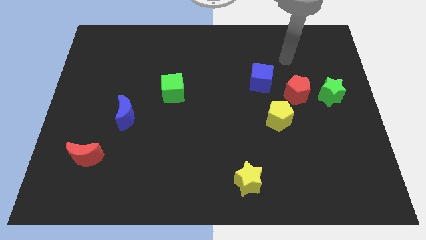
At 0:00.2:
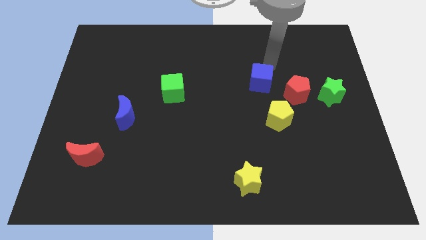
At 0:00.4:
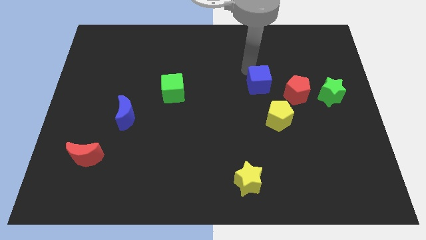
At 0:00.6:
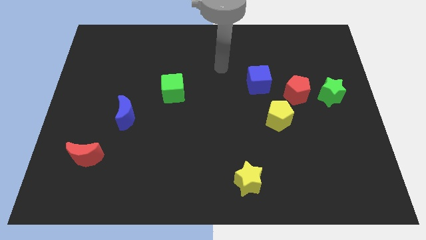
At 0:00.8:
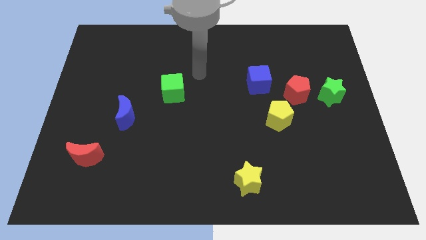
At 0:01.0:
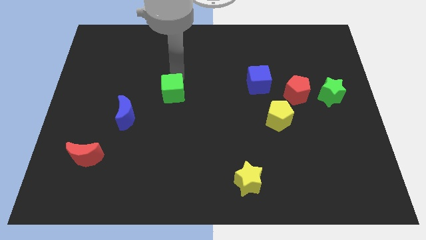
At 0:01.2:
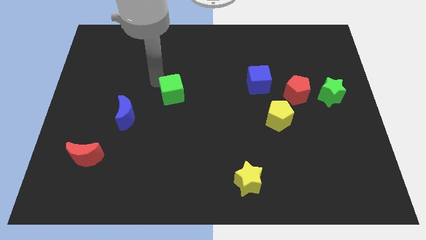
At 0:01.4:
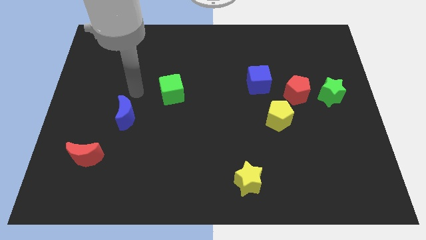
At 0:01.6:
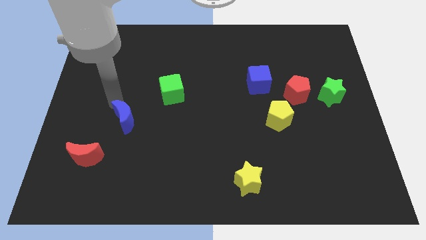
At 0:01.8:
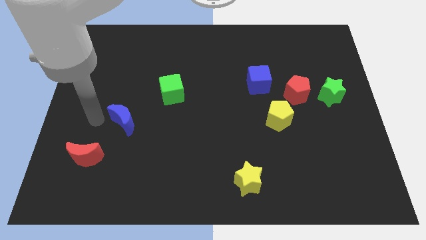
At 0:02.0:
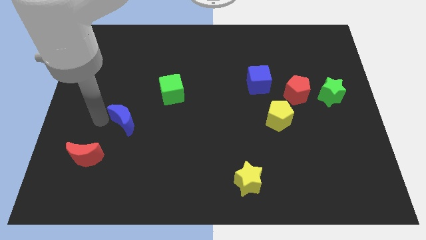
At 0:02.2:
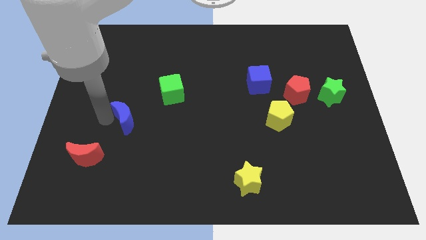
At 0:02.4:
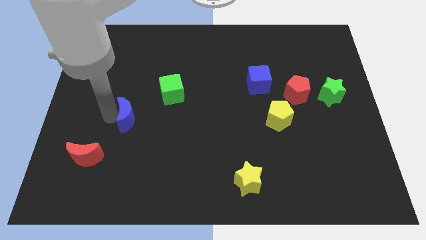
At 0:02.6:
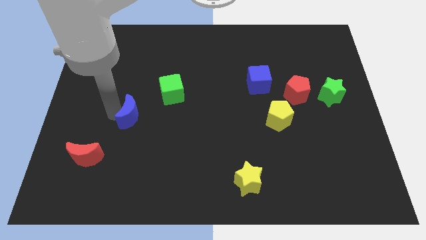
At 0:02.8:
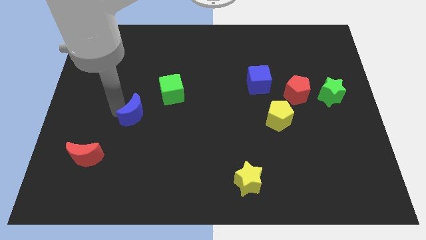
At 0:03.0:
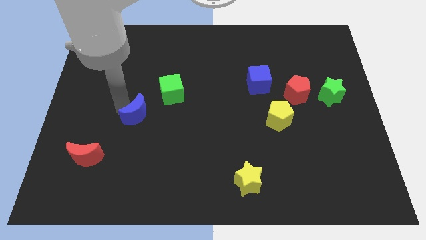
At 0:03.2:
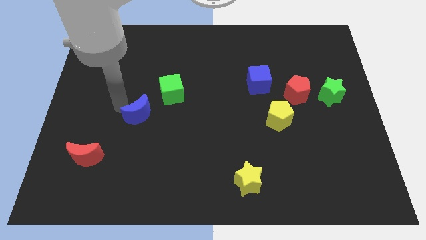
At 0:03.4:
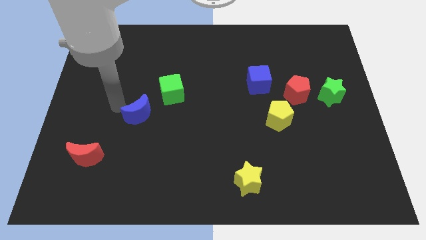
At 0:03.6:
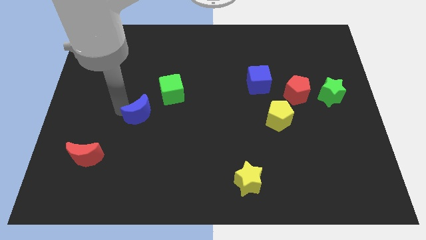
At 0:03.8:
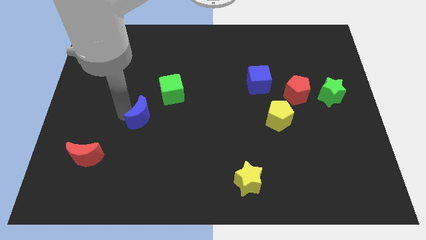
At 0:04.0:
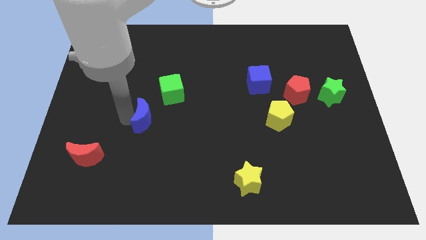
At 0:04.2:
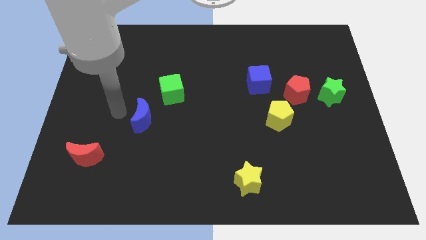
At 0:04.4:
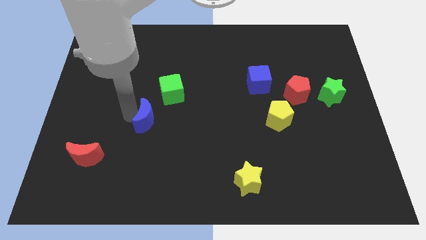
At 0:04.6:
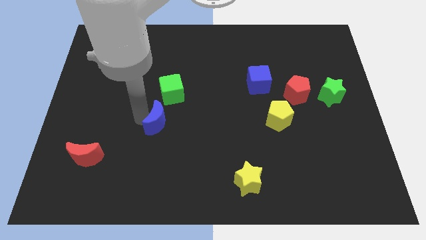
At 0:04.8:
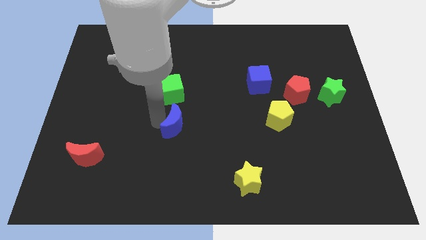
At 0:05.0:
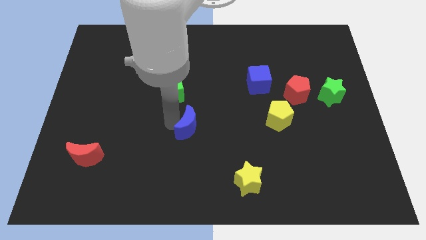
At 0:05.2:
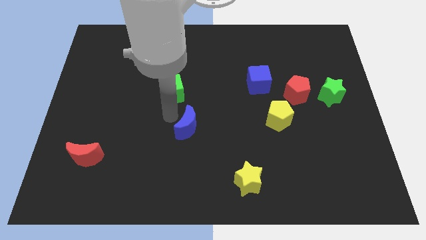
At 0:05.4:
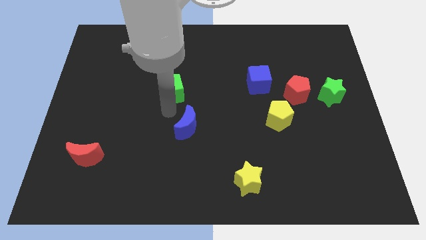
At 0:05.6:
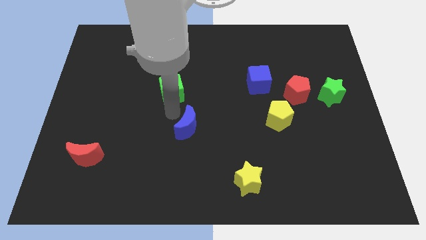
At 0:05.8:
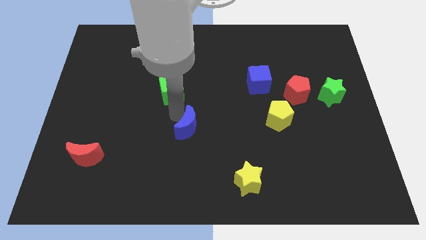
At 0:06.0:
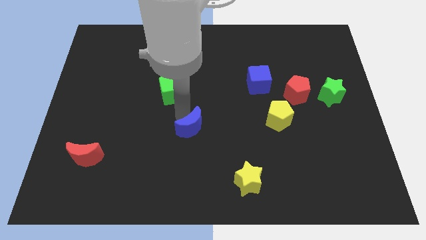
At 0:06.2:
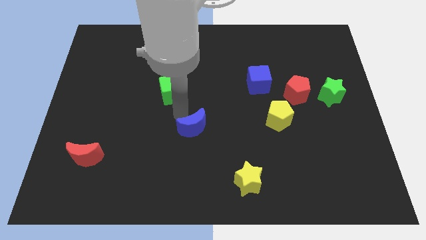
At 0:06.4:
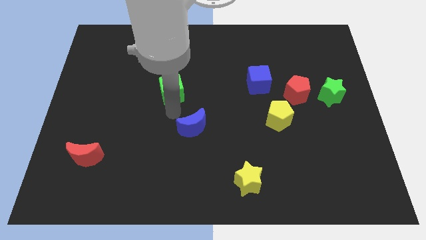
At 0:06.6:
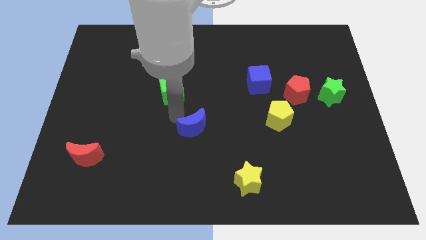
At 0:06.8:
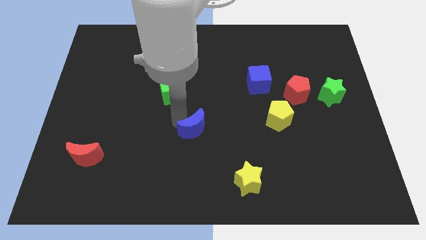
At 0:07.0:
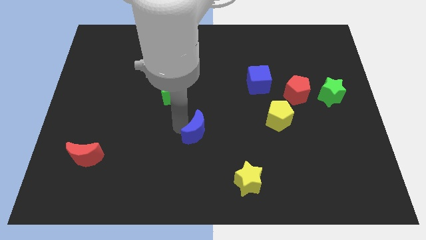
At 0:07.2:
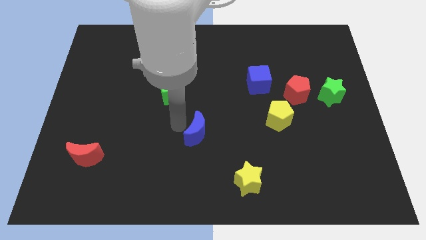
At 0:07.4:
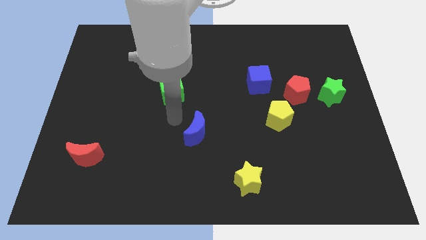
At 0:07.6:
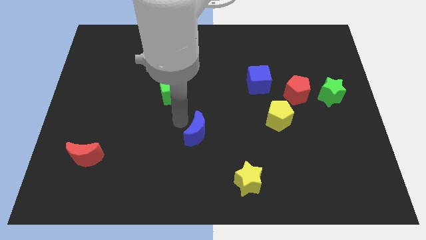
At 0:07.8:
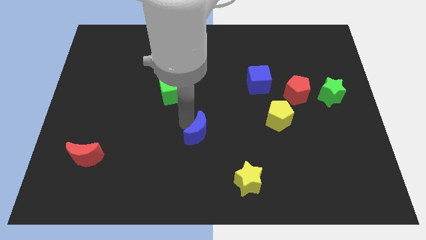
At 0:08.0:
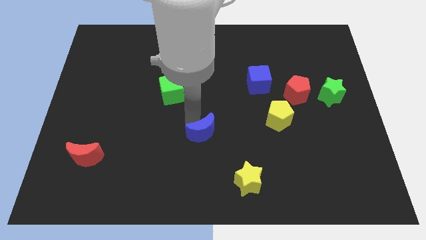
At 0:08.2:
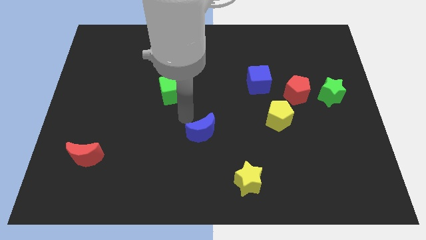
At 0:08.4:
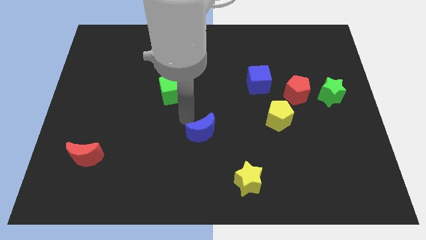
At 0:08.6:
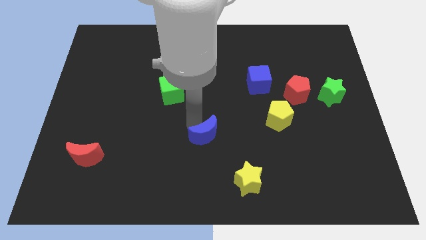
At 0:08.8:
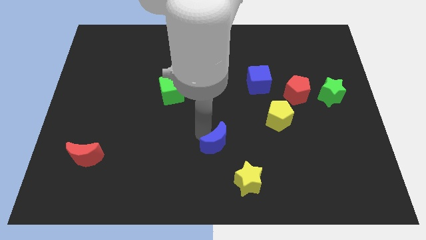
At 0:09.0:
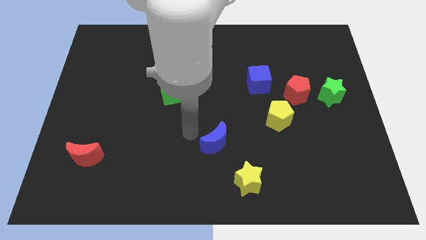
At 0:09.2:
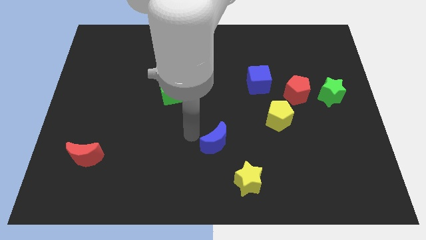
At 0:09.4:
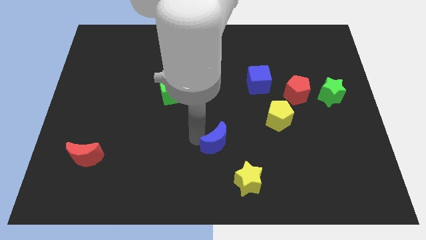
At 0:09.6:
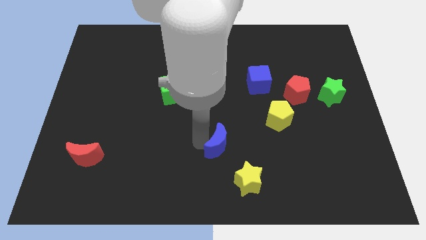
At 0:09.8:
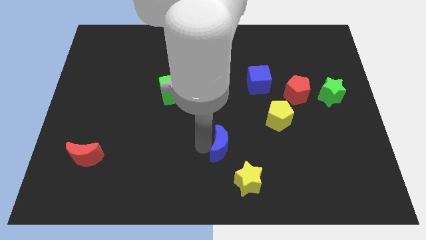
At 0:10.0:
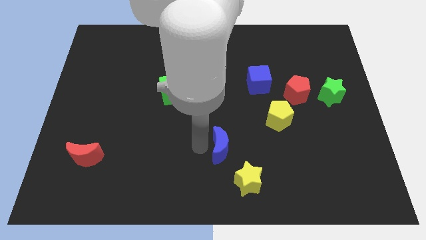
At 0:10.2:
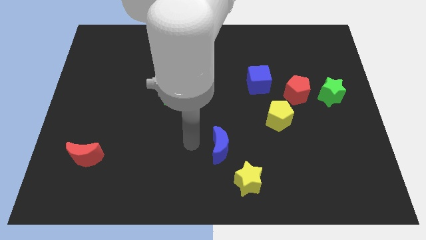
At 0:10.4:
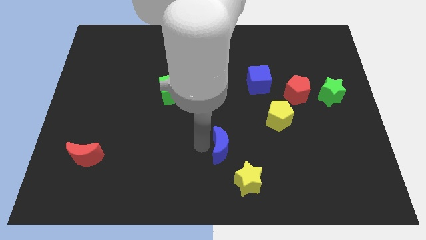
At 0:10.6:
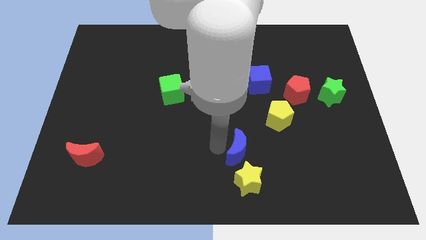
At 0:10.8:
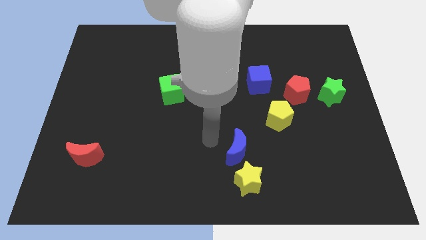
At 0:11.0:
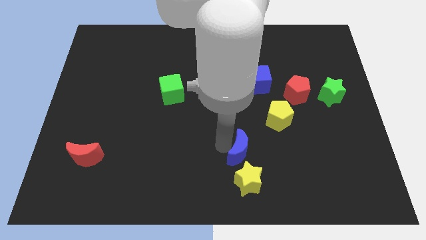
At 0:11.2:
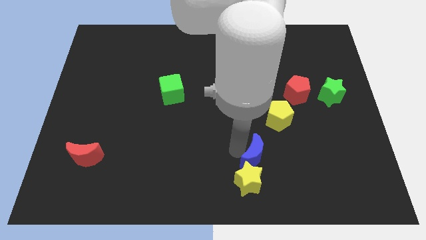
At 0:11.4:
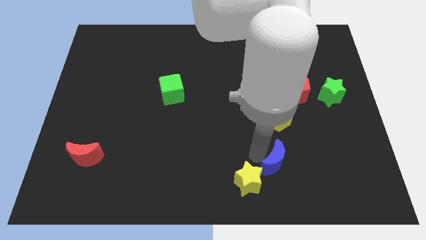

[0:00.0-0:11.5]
move the blue moon to the right side of the yellow star

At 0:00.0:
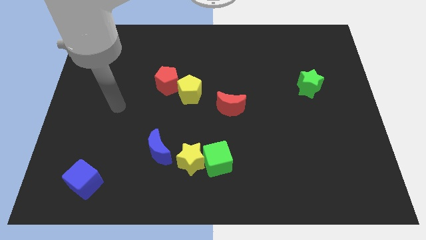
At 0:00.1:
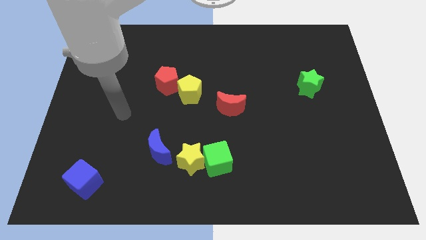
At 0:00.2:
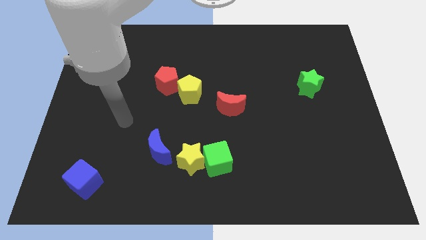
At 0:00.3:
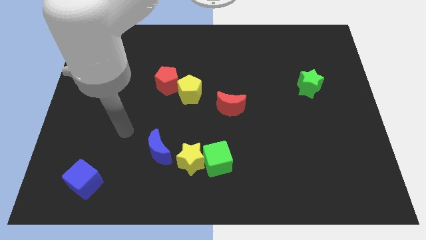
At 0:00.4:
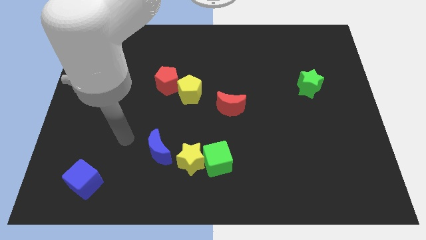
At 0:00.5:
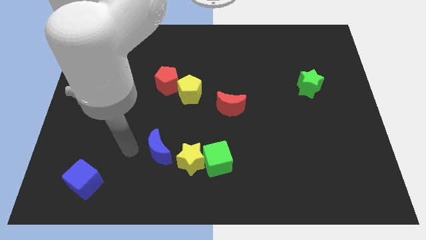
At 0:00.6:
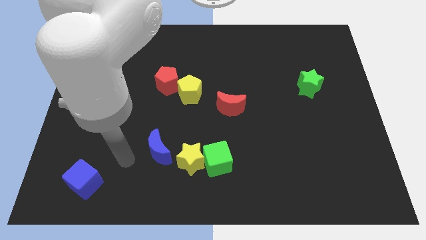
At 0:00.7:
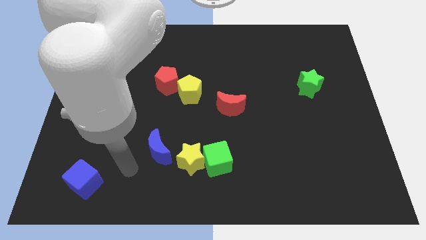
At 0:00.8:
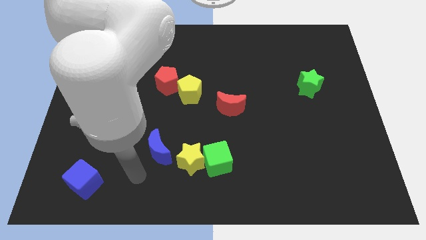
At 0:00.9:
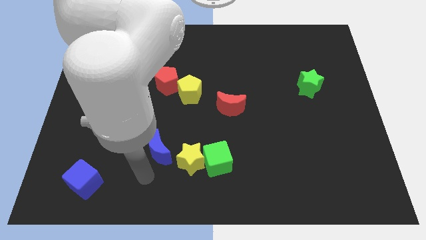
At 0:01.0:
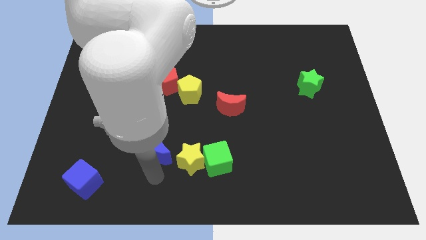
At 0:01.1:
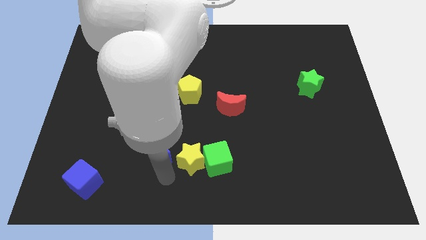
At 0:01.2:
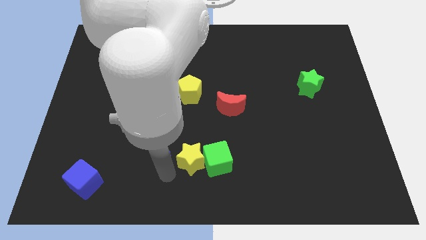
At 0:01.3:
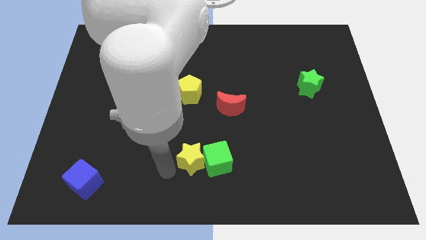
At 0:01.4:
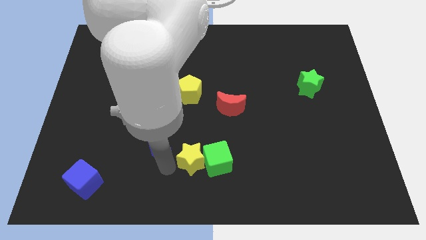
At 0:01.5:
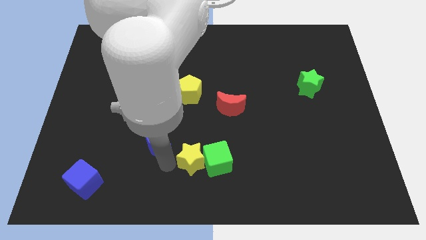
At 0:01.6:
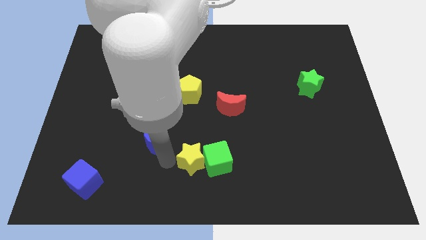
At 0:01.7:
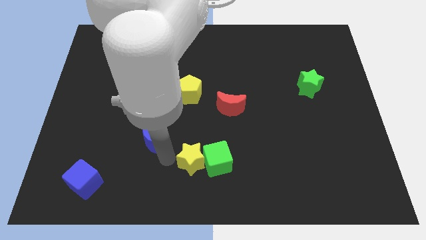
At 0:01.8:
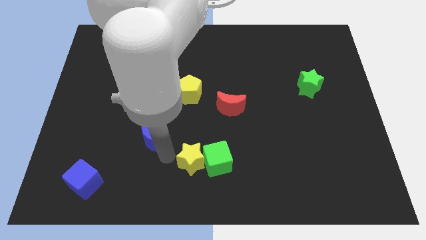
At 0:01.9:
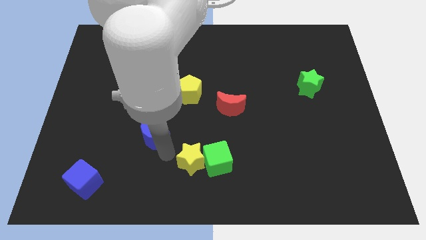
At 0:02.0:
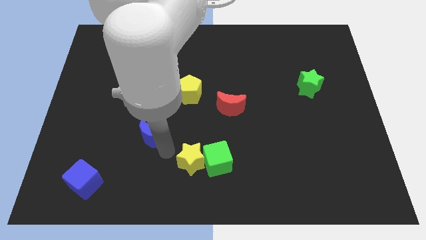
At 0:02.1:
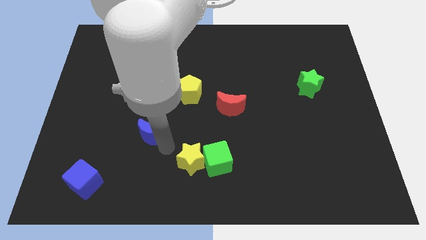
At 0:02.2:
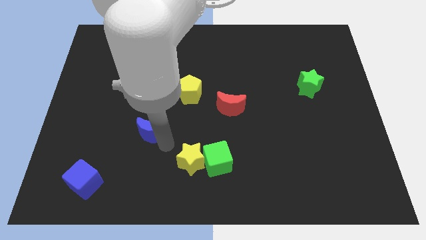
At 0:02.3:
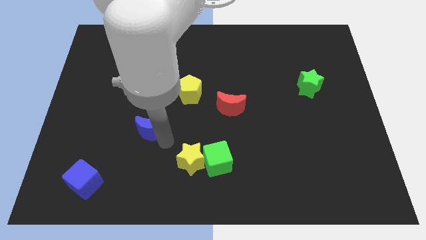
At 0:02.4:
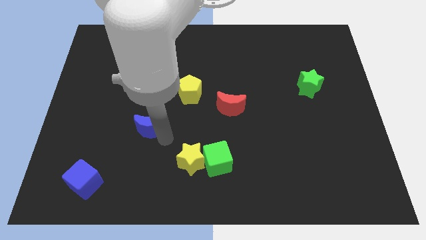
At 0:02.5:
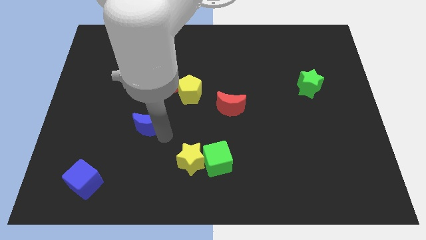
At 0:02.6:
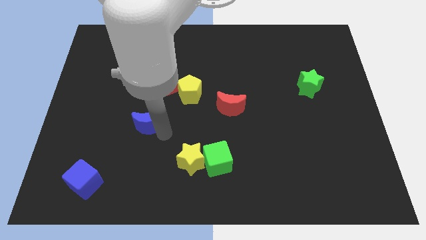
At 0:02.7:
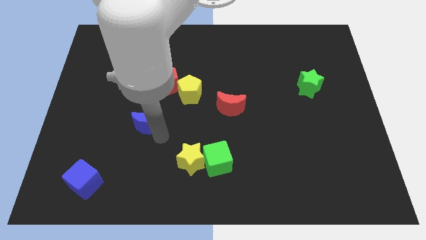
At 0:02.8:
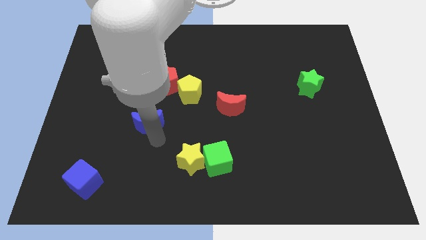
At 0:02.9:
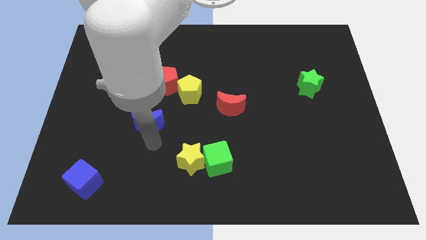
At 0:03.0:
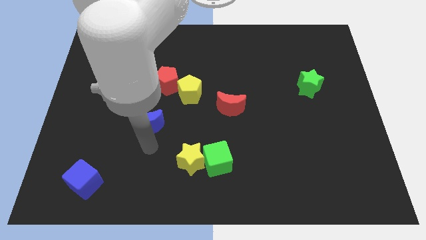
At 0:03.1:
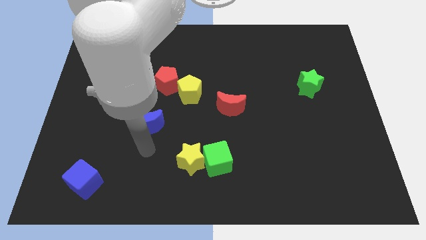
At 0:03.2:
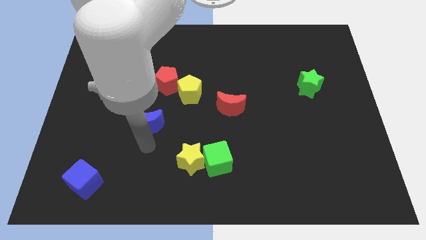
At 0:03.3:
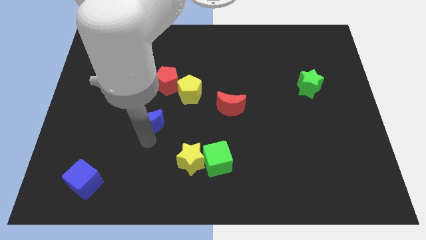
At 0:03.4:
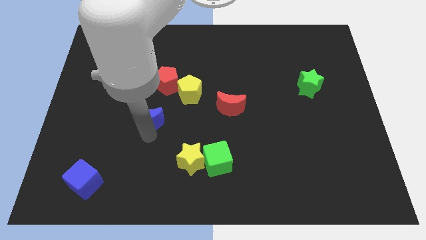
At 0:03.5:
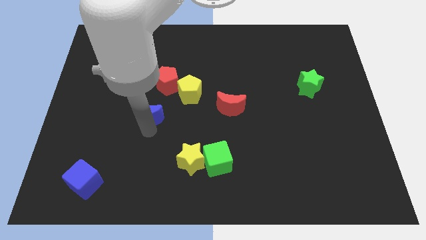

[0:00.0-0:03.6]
put the blue moon to the bottom left of the red pentagon
